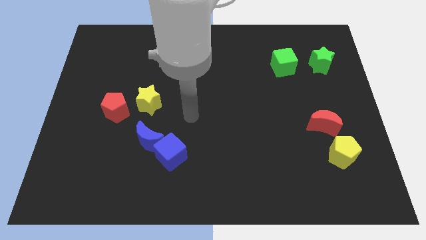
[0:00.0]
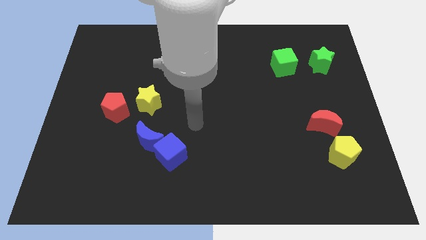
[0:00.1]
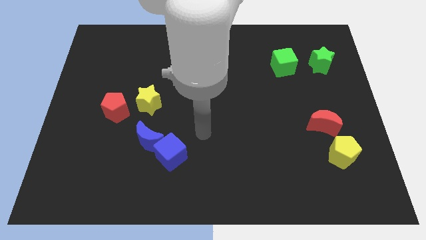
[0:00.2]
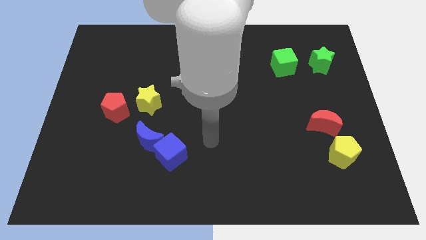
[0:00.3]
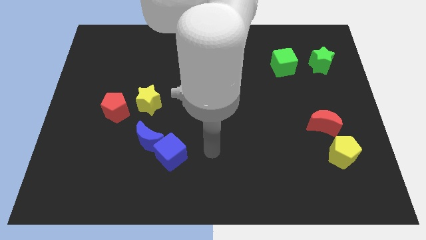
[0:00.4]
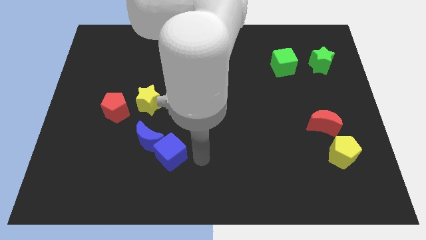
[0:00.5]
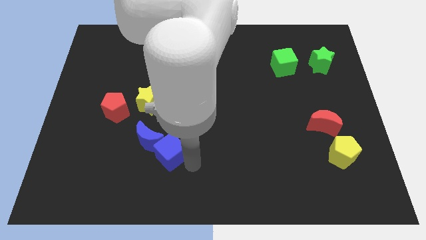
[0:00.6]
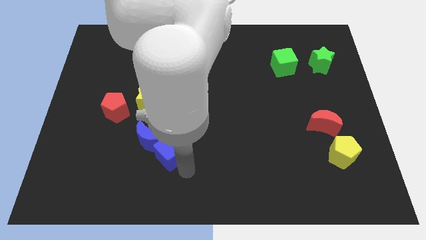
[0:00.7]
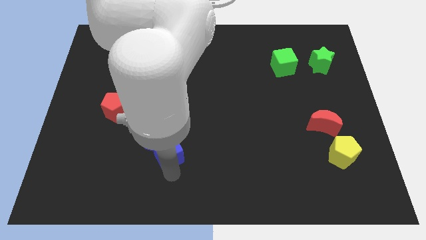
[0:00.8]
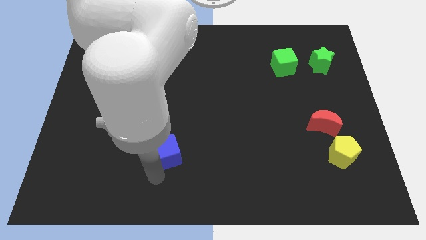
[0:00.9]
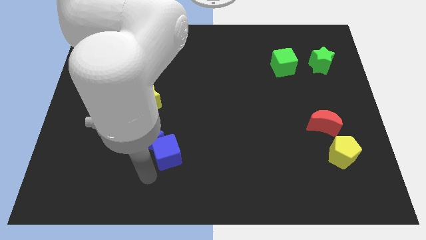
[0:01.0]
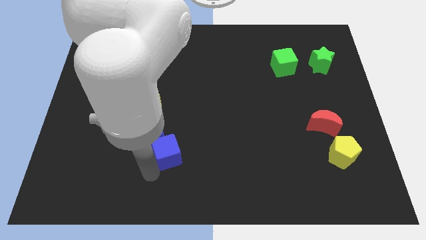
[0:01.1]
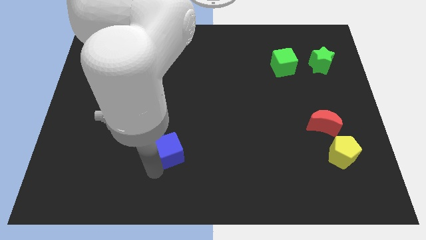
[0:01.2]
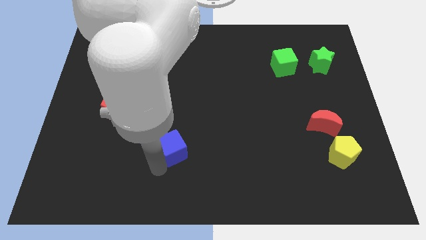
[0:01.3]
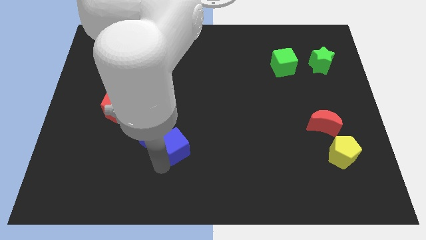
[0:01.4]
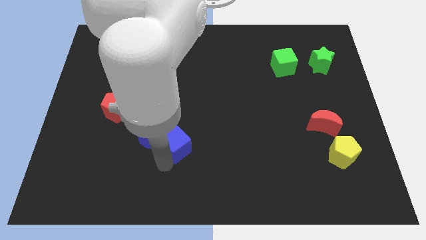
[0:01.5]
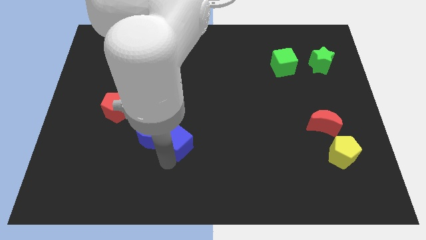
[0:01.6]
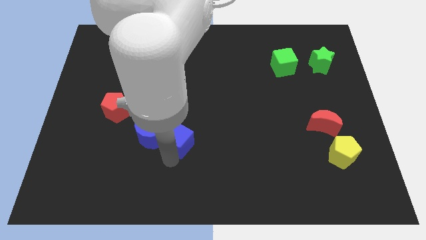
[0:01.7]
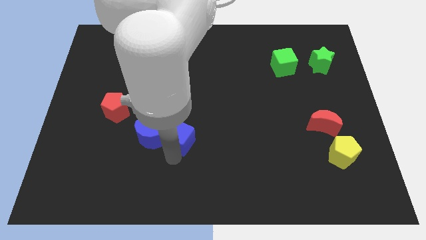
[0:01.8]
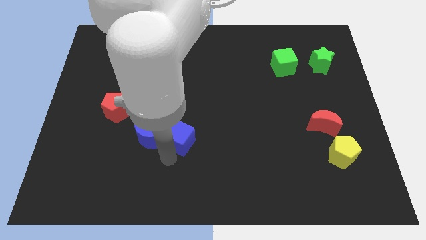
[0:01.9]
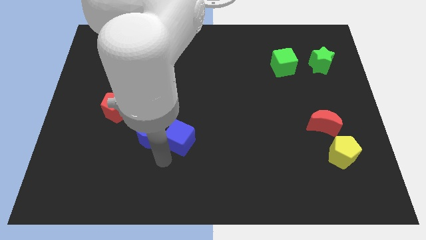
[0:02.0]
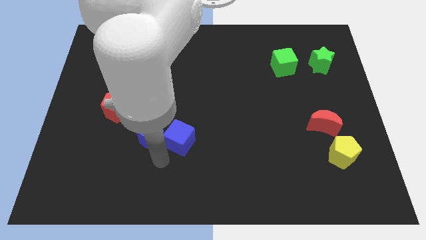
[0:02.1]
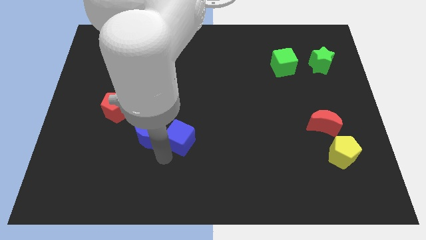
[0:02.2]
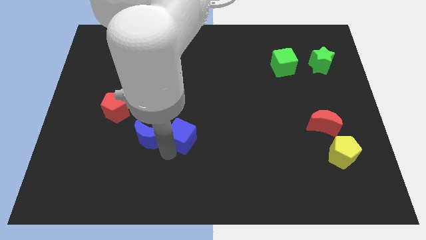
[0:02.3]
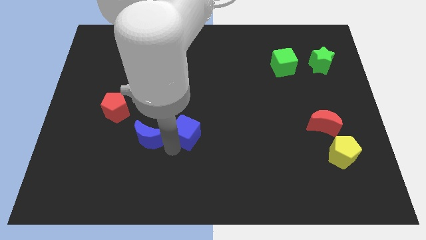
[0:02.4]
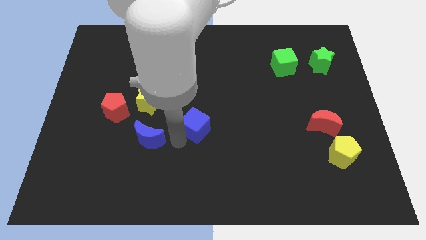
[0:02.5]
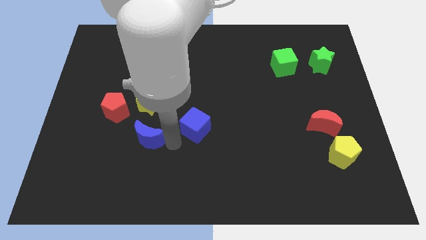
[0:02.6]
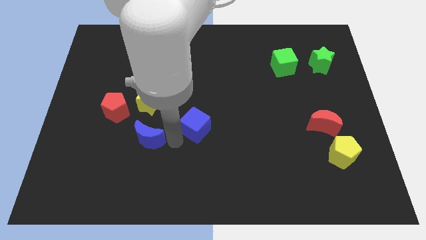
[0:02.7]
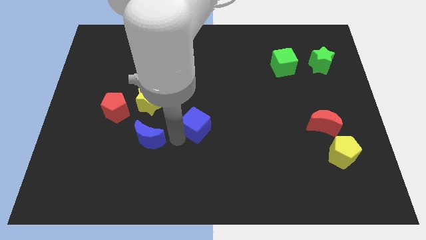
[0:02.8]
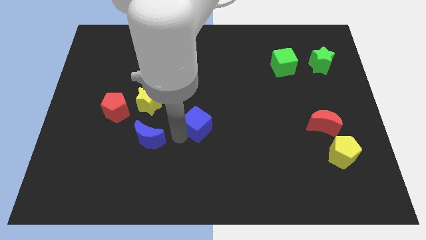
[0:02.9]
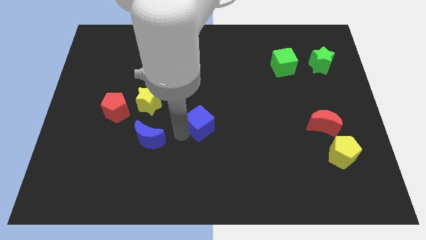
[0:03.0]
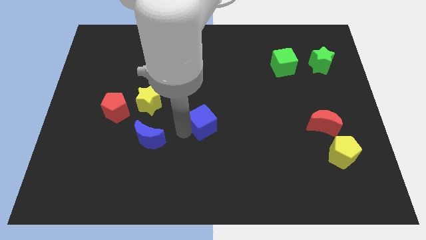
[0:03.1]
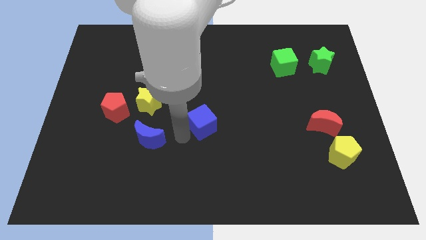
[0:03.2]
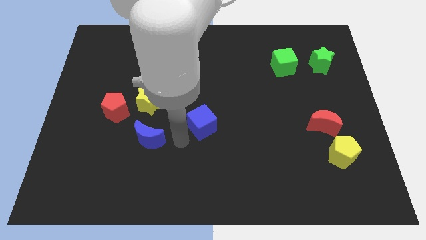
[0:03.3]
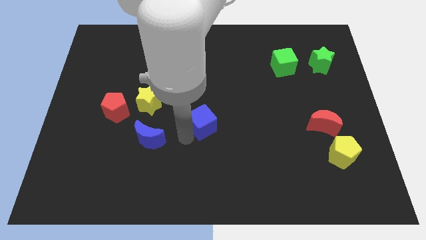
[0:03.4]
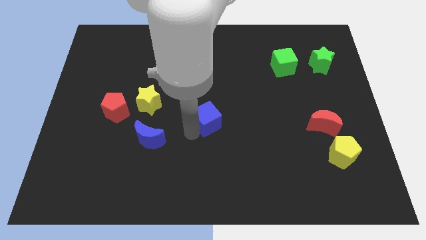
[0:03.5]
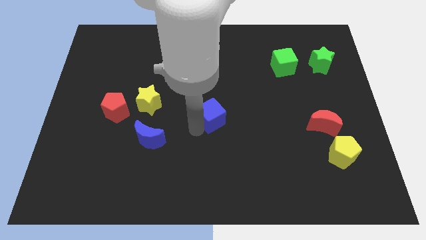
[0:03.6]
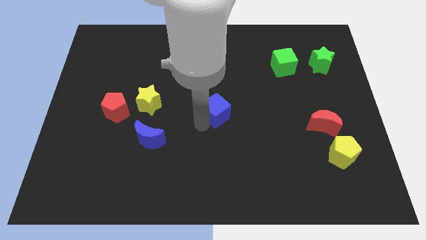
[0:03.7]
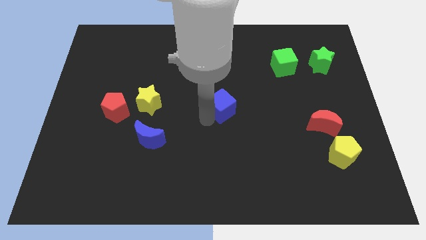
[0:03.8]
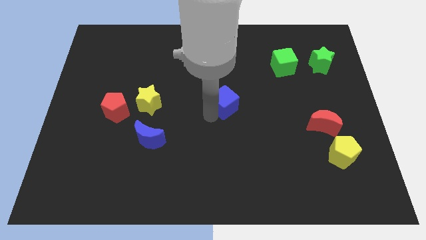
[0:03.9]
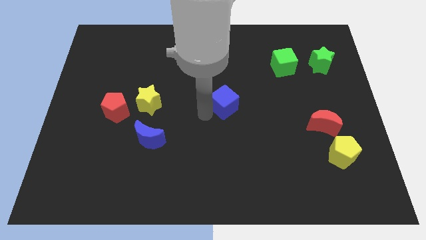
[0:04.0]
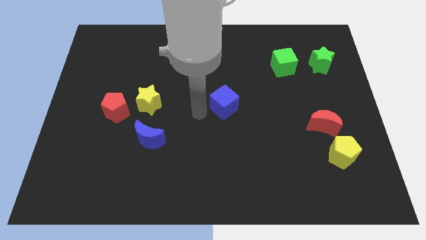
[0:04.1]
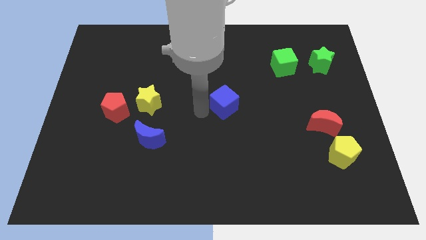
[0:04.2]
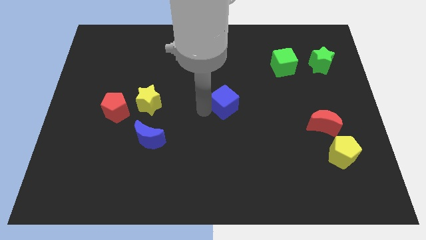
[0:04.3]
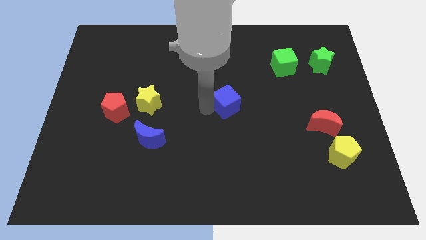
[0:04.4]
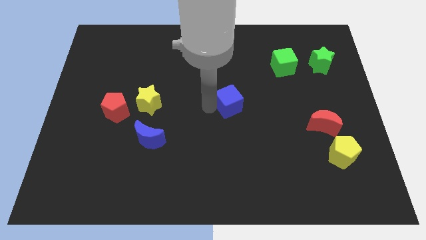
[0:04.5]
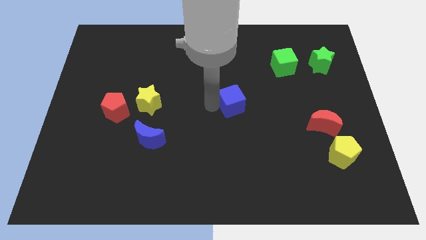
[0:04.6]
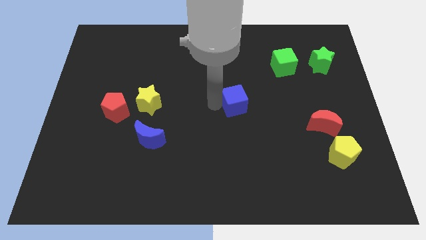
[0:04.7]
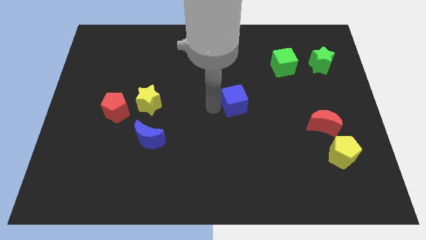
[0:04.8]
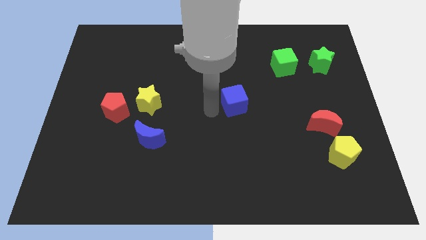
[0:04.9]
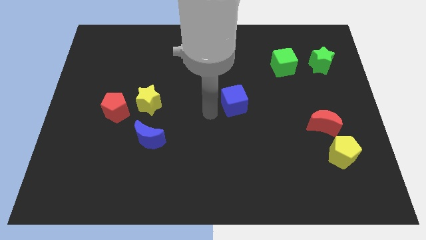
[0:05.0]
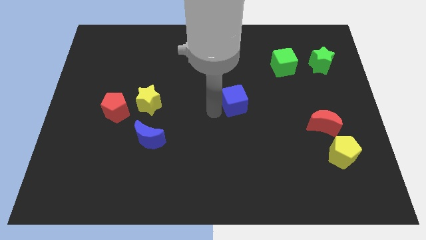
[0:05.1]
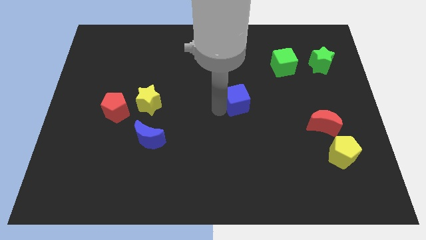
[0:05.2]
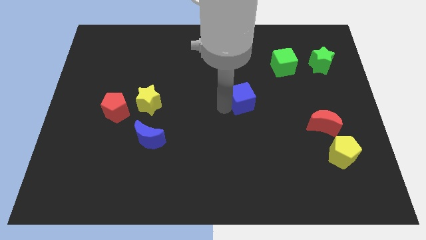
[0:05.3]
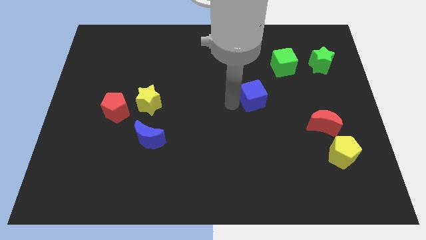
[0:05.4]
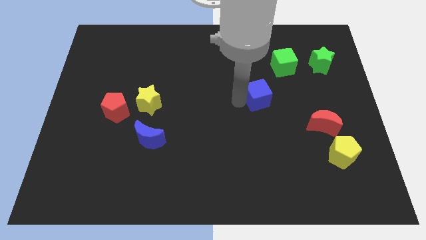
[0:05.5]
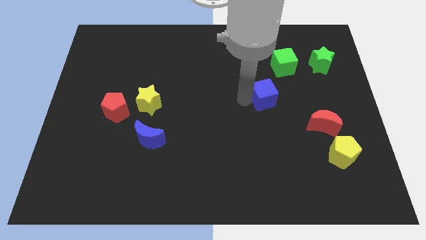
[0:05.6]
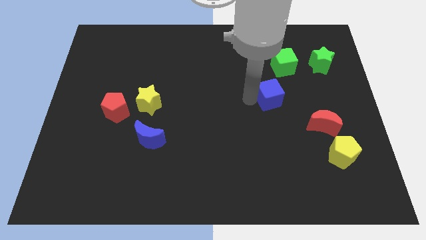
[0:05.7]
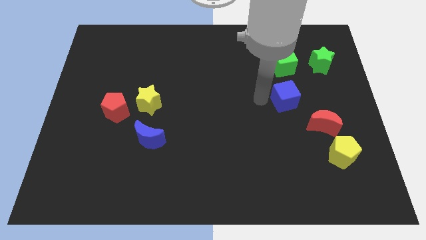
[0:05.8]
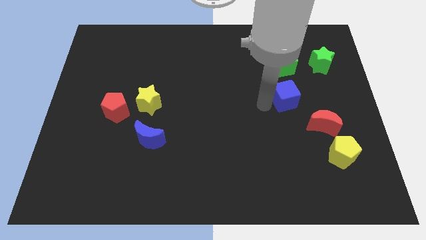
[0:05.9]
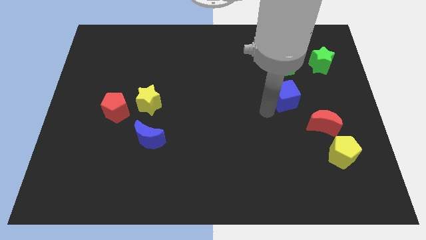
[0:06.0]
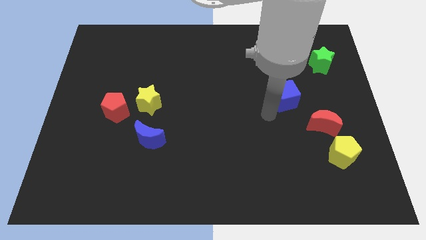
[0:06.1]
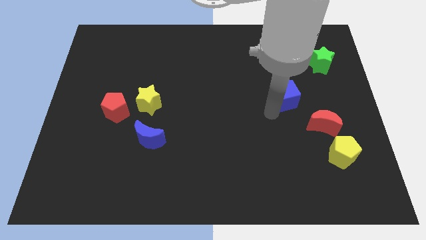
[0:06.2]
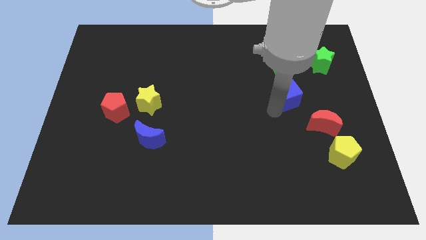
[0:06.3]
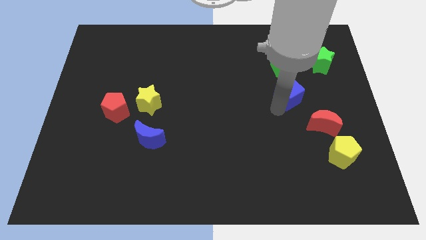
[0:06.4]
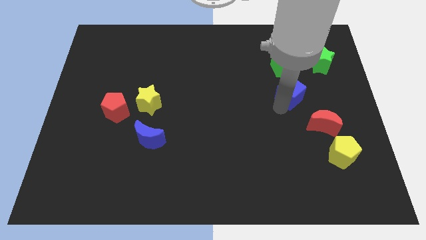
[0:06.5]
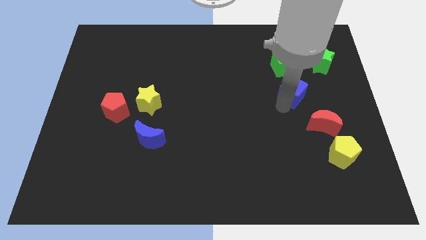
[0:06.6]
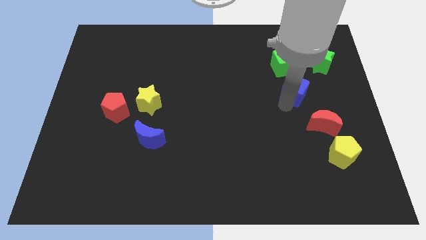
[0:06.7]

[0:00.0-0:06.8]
move the blue cube to the bottom left of the green star

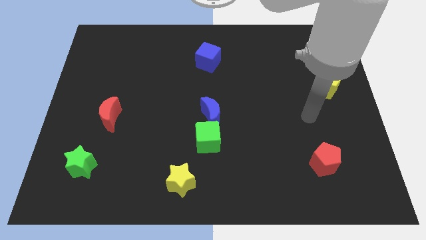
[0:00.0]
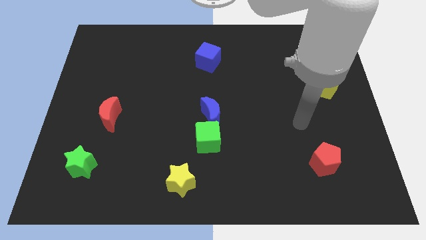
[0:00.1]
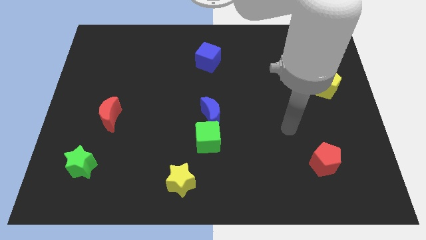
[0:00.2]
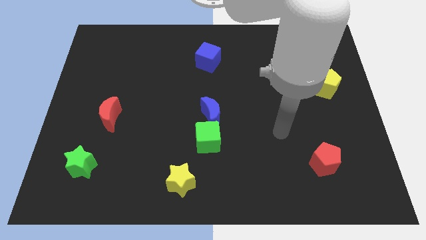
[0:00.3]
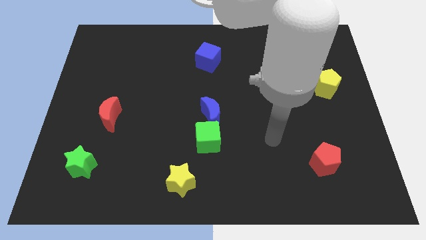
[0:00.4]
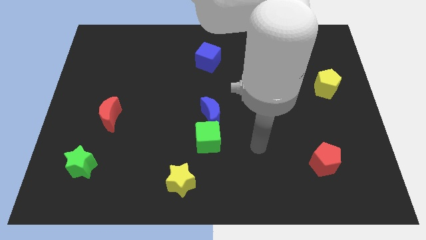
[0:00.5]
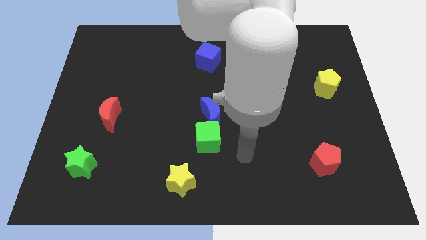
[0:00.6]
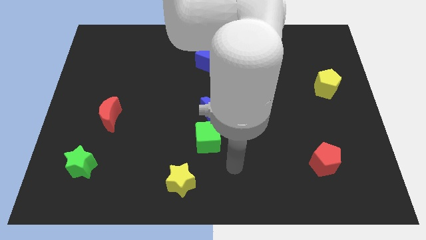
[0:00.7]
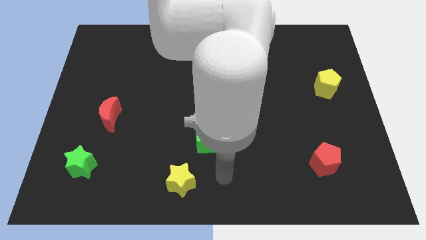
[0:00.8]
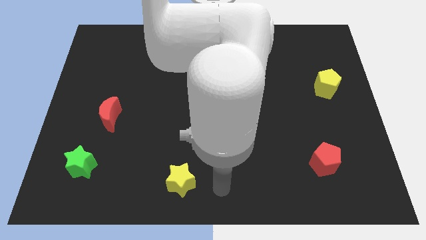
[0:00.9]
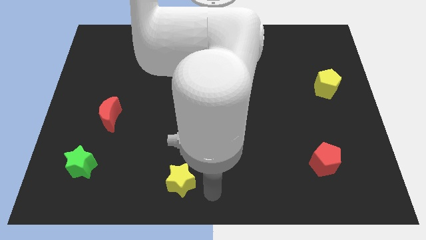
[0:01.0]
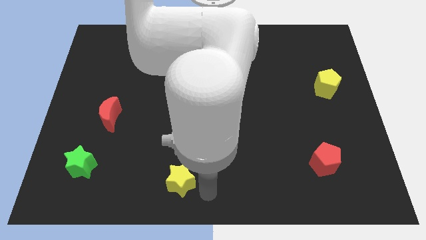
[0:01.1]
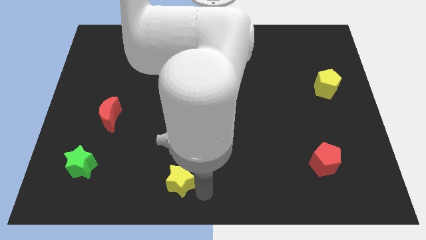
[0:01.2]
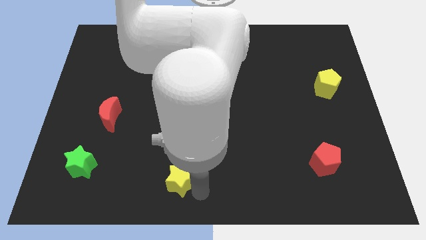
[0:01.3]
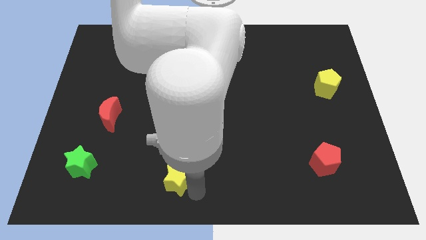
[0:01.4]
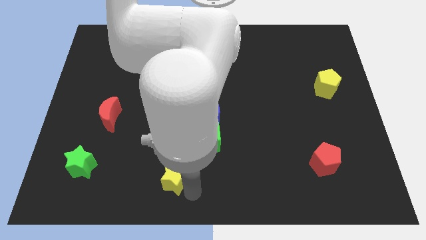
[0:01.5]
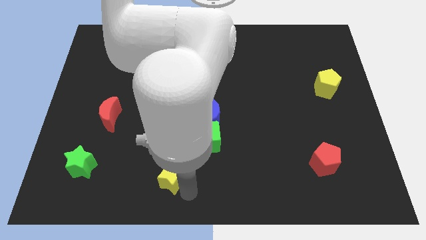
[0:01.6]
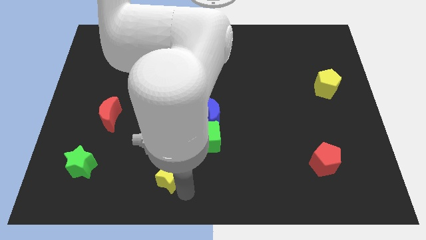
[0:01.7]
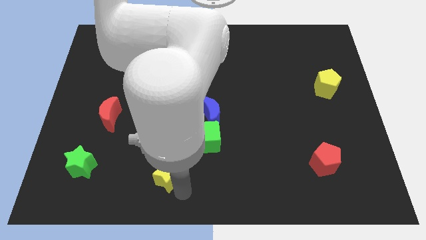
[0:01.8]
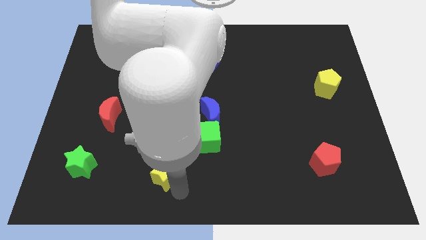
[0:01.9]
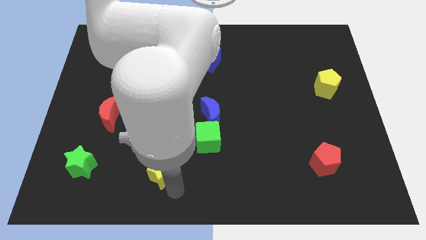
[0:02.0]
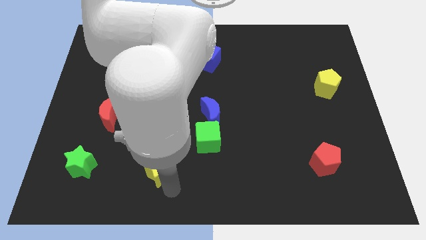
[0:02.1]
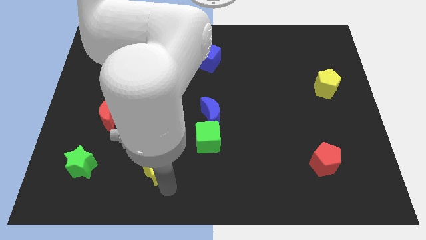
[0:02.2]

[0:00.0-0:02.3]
slide the yellow star just right of the green star
